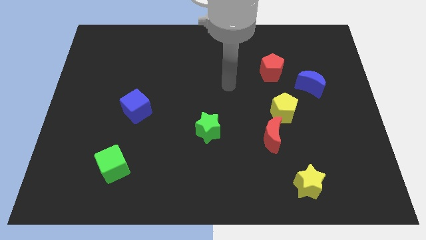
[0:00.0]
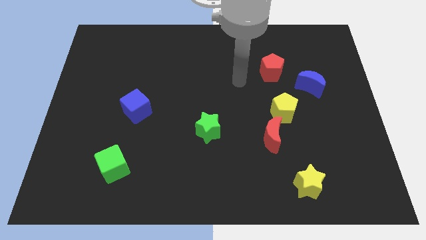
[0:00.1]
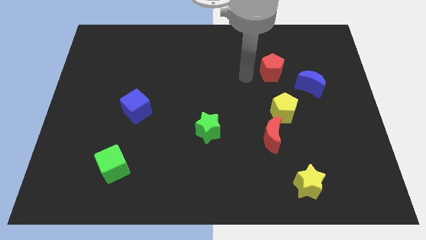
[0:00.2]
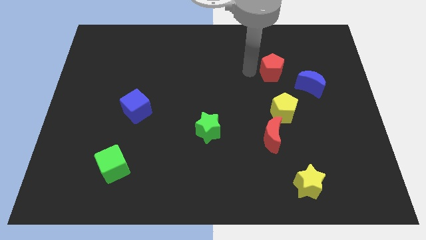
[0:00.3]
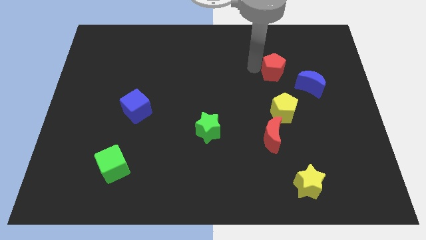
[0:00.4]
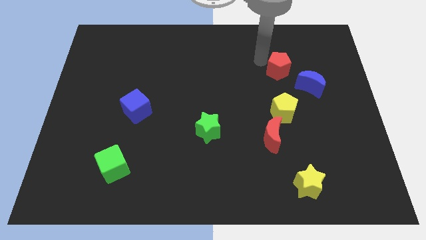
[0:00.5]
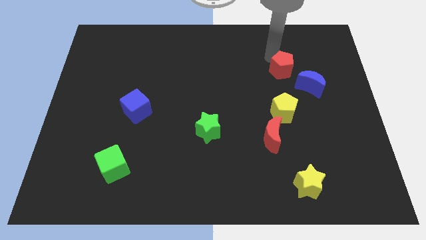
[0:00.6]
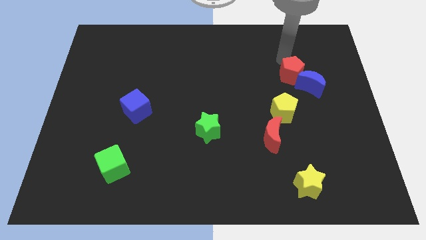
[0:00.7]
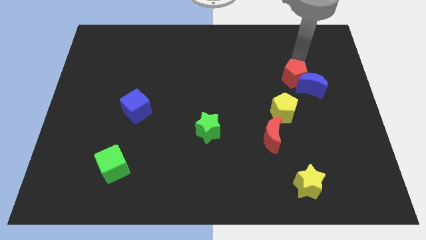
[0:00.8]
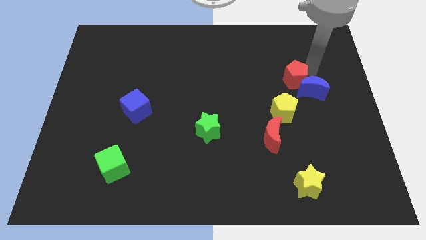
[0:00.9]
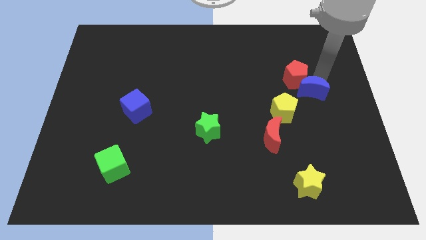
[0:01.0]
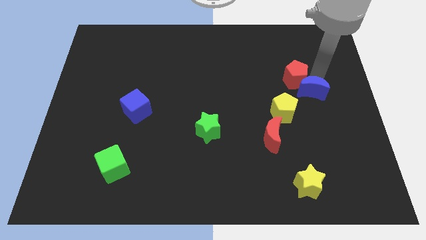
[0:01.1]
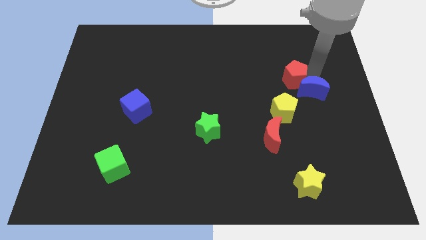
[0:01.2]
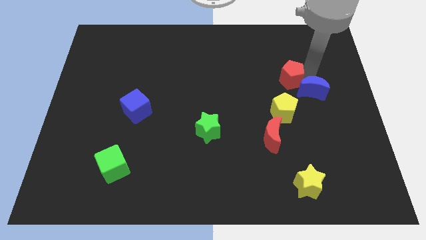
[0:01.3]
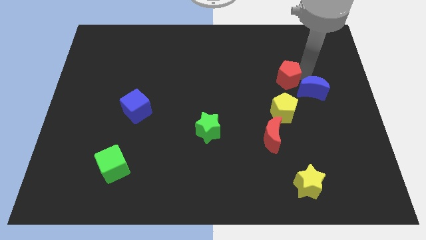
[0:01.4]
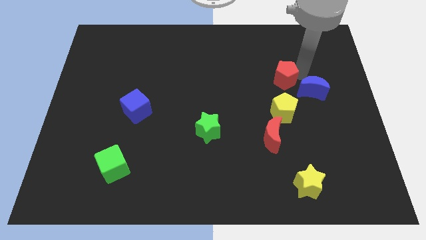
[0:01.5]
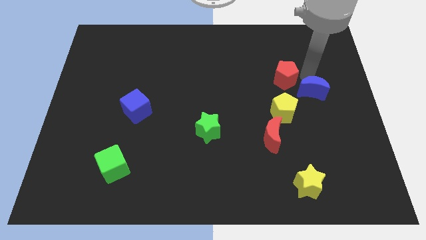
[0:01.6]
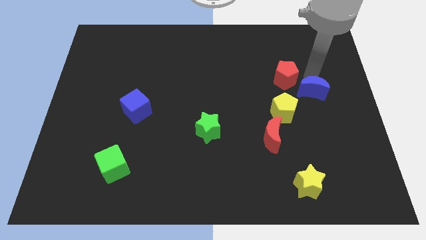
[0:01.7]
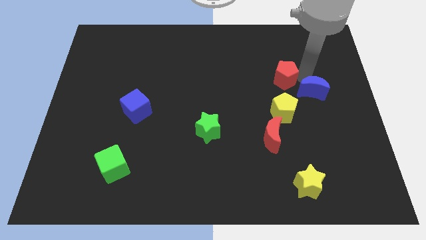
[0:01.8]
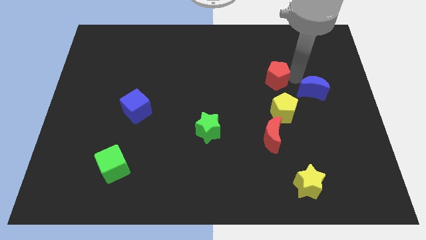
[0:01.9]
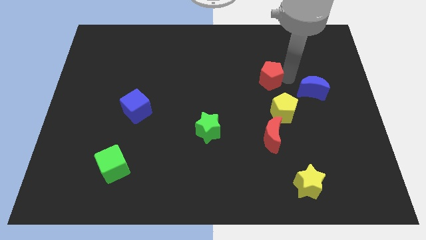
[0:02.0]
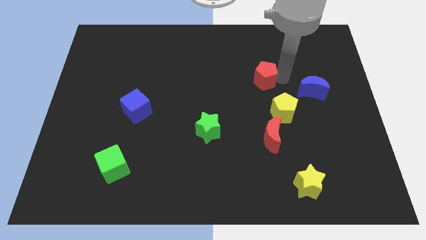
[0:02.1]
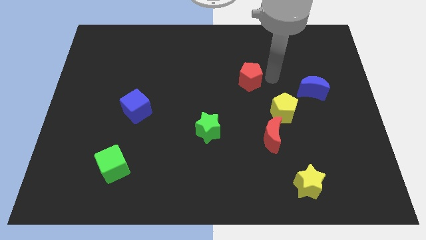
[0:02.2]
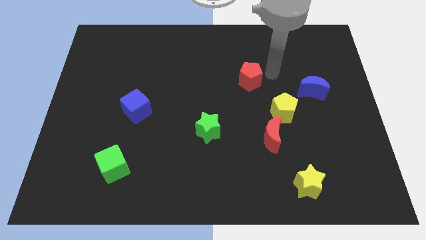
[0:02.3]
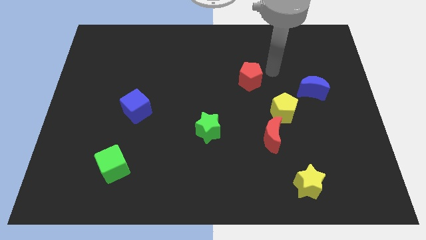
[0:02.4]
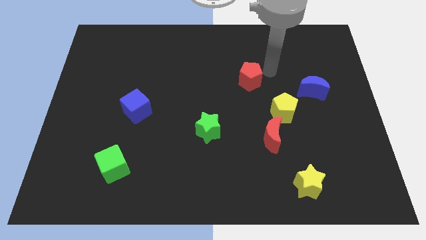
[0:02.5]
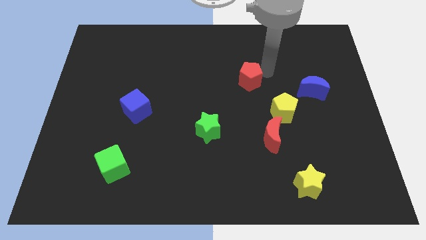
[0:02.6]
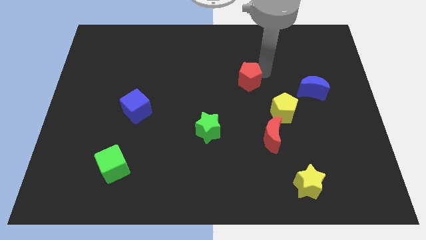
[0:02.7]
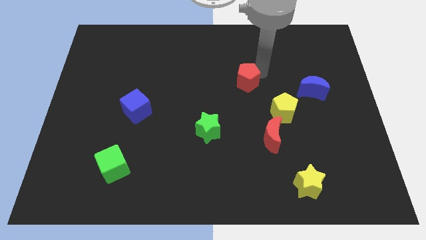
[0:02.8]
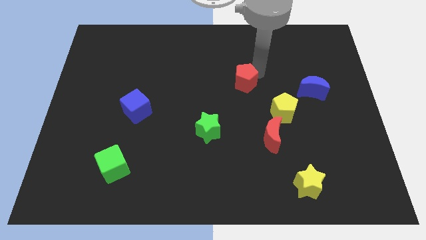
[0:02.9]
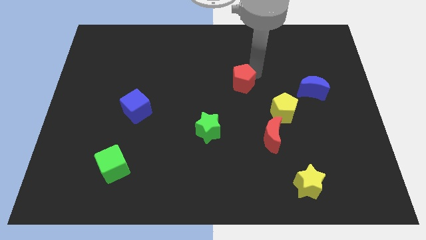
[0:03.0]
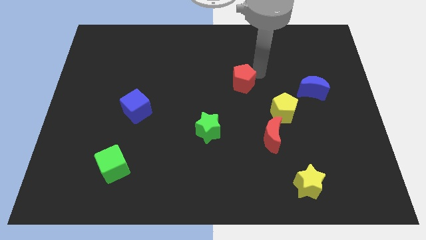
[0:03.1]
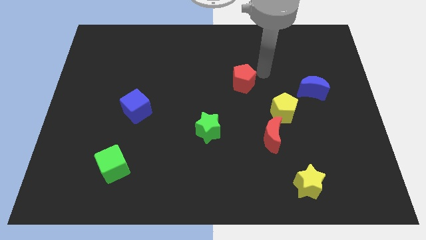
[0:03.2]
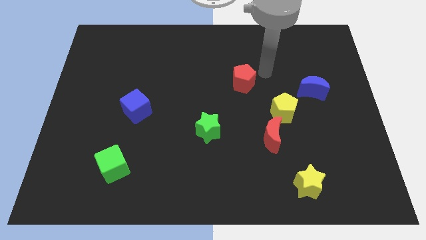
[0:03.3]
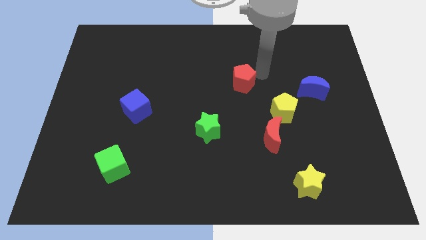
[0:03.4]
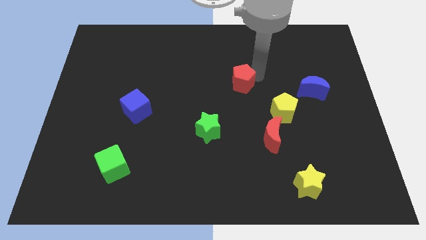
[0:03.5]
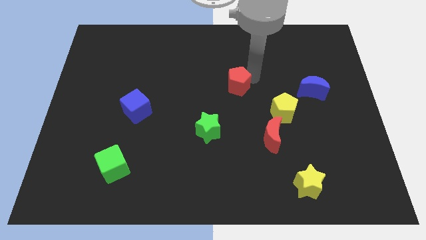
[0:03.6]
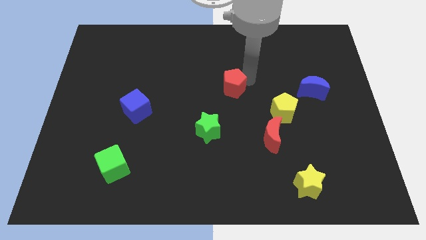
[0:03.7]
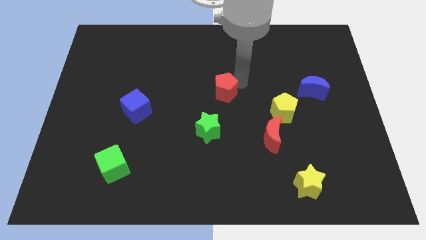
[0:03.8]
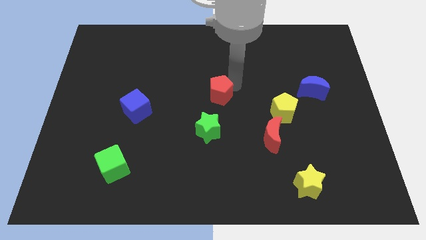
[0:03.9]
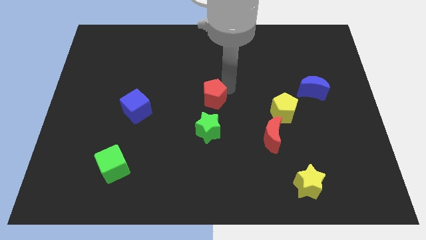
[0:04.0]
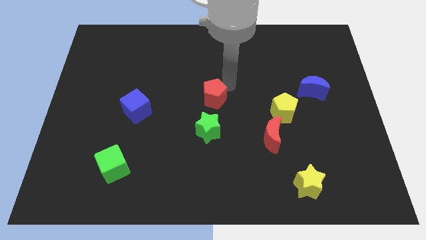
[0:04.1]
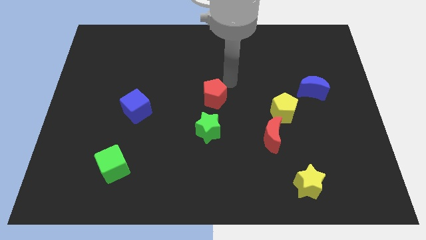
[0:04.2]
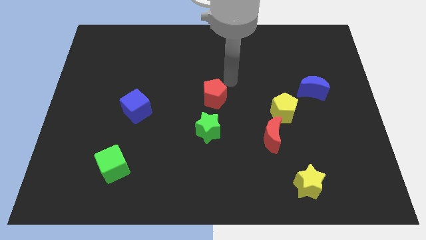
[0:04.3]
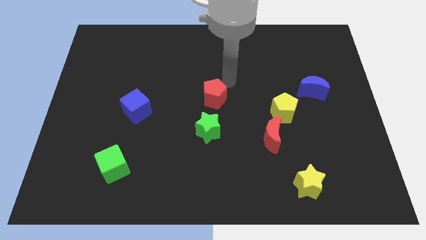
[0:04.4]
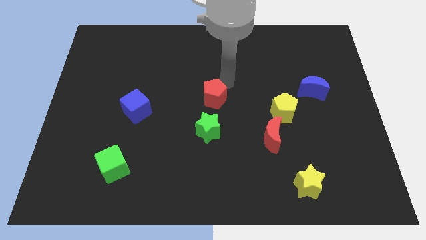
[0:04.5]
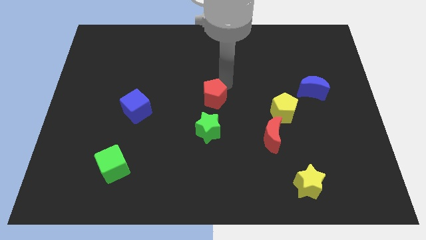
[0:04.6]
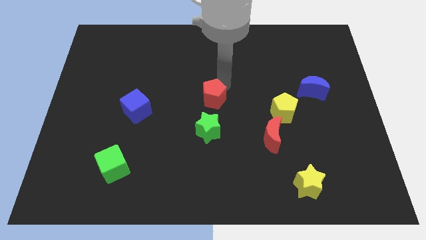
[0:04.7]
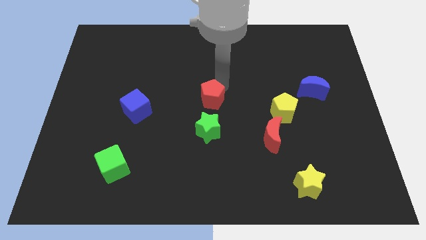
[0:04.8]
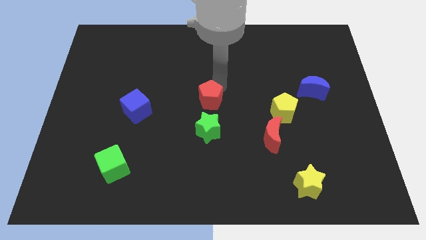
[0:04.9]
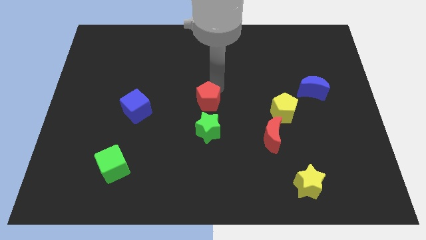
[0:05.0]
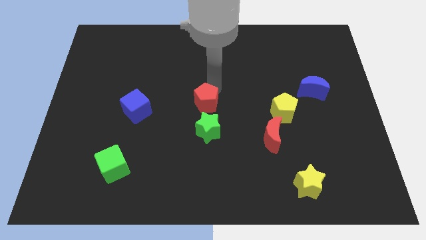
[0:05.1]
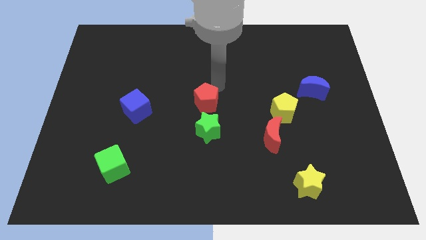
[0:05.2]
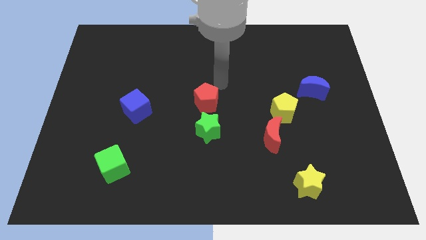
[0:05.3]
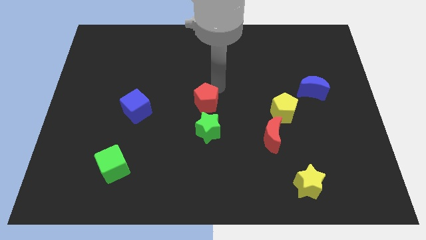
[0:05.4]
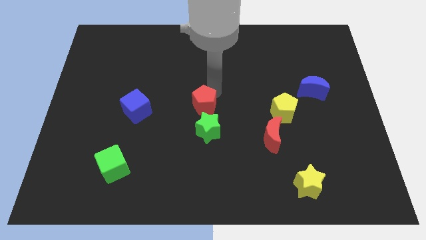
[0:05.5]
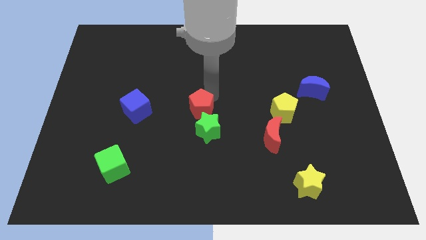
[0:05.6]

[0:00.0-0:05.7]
slide the red pentagon downwards and then to the left

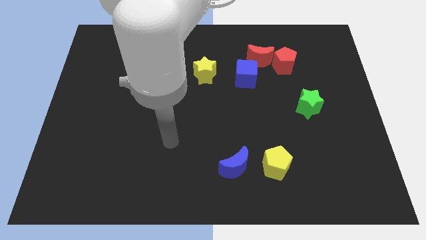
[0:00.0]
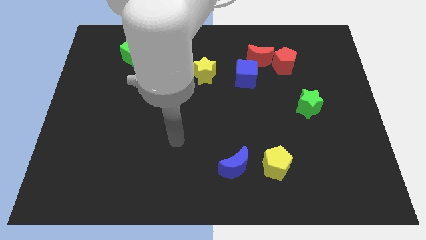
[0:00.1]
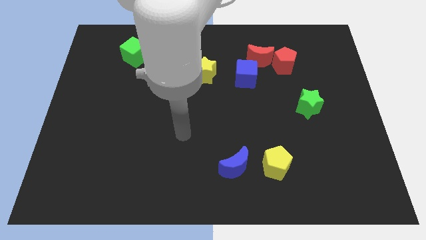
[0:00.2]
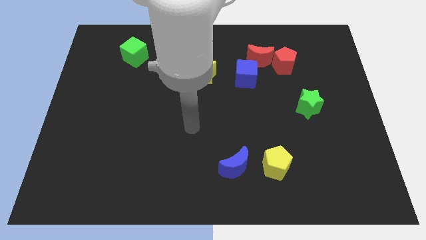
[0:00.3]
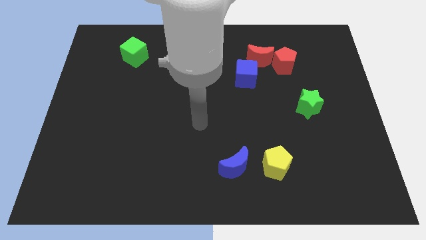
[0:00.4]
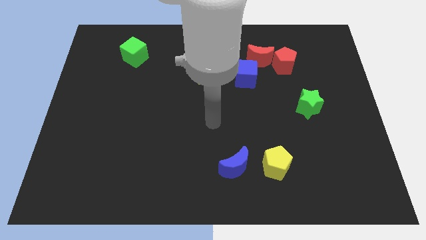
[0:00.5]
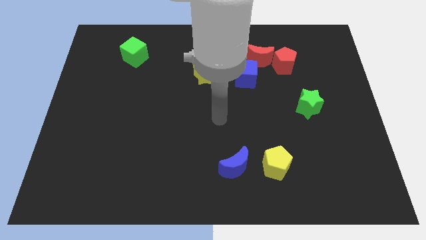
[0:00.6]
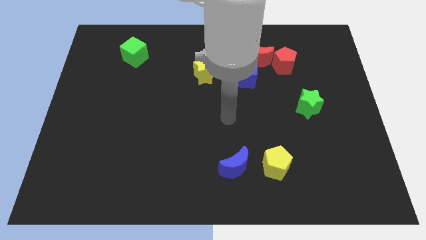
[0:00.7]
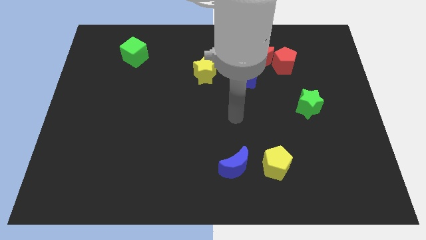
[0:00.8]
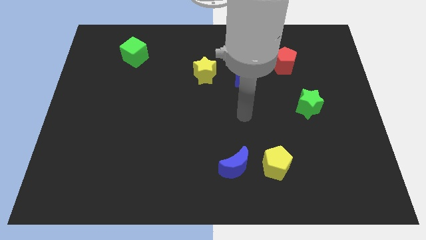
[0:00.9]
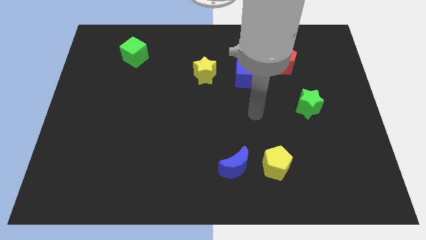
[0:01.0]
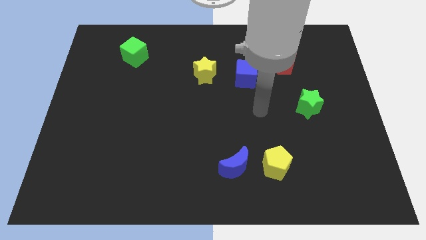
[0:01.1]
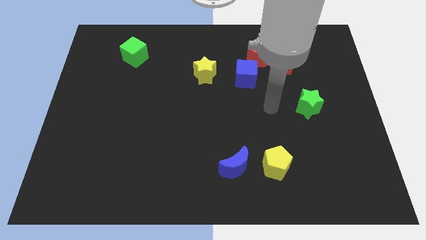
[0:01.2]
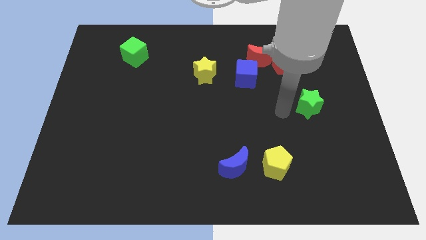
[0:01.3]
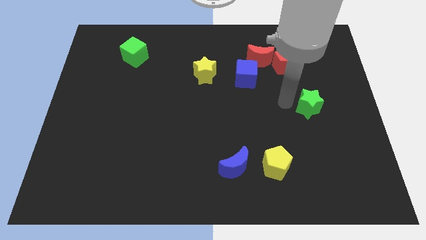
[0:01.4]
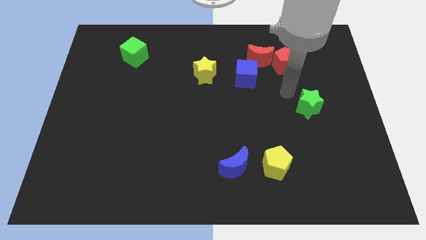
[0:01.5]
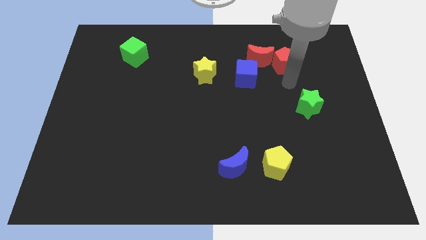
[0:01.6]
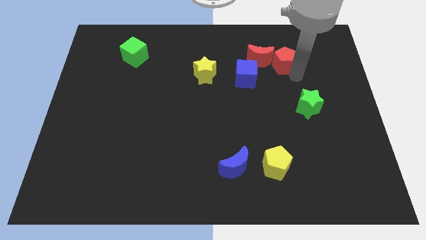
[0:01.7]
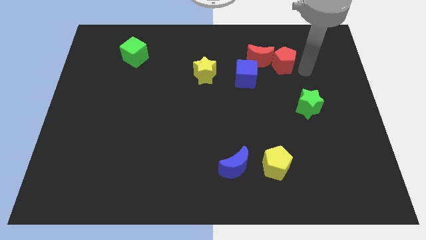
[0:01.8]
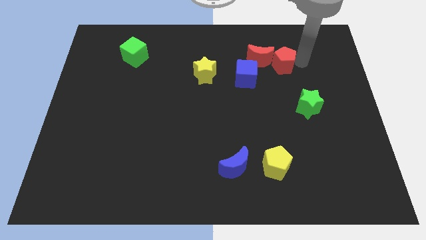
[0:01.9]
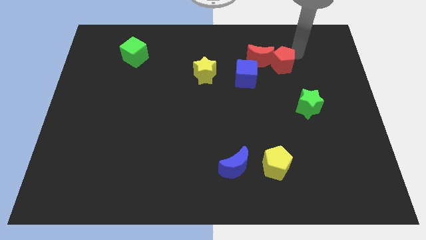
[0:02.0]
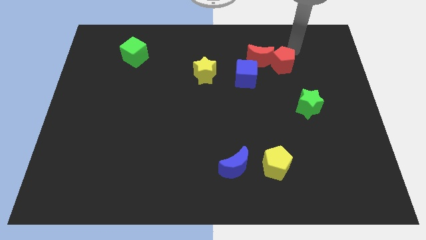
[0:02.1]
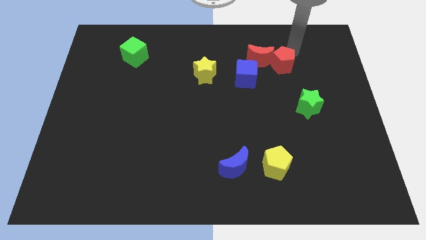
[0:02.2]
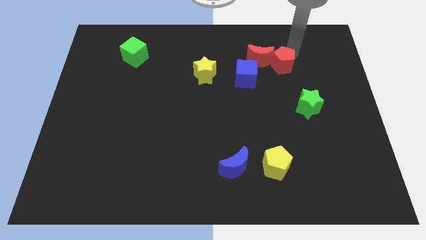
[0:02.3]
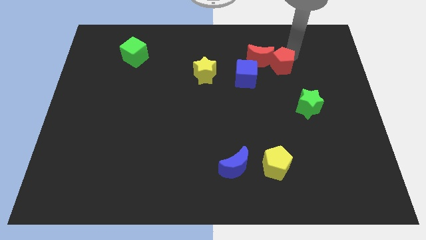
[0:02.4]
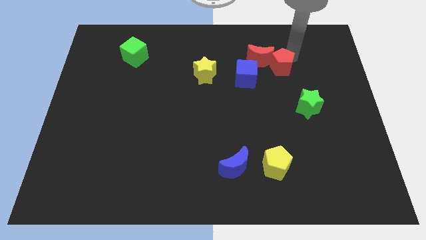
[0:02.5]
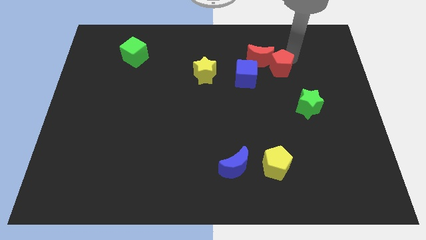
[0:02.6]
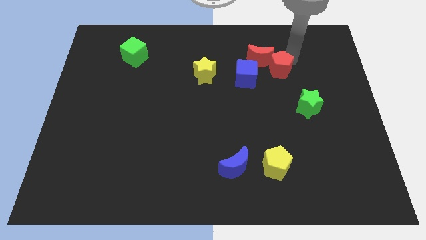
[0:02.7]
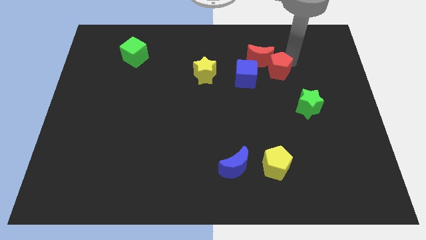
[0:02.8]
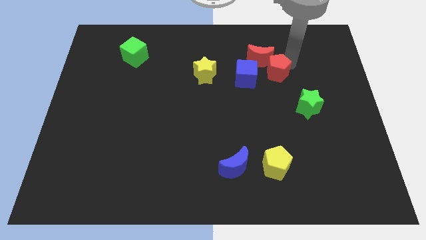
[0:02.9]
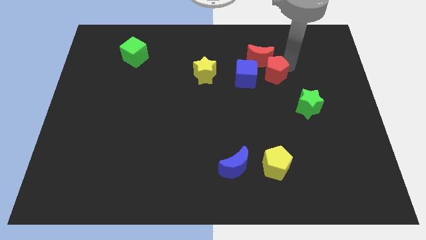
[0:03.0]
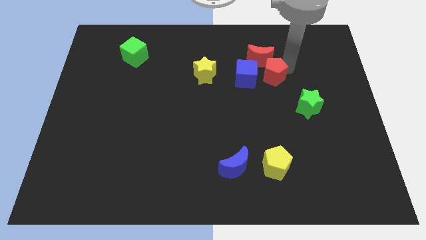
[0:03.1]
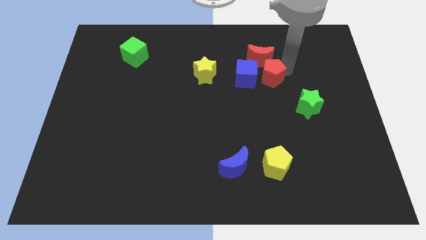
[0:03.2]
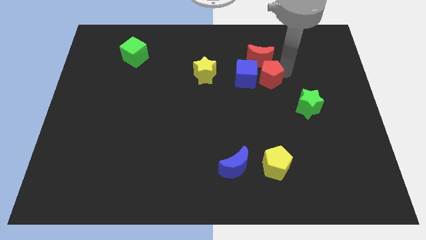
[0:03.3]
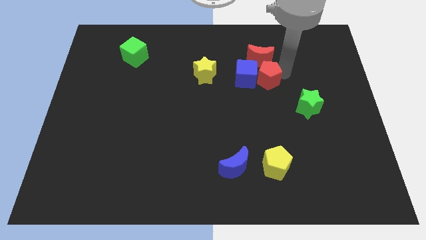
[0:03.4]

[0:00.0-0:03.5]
slightly slide the red pentagon diagonally downwards and left
